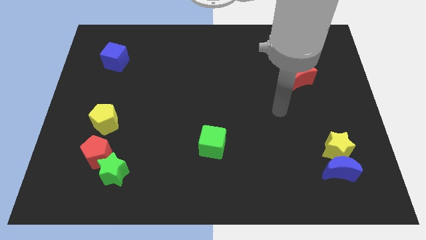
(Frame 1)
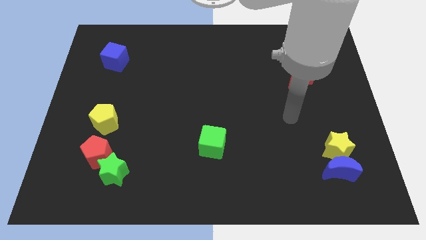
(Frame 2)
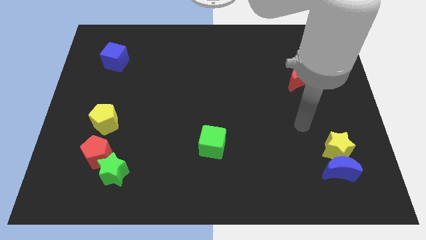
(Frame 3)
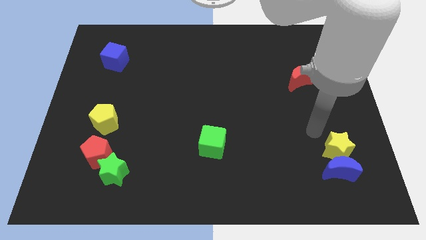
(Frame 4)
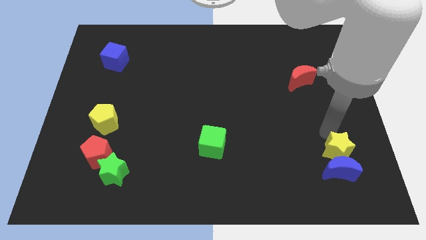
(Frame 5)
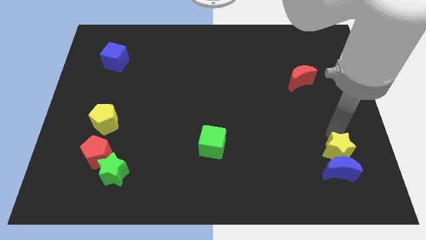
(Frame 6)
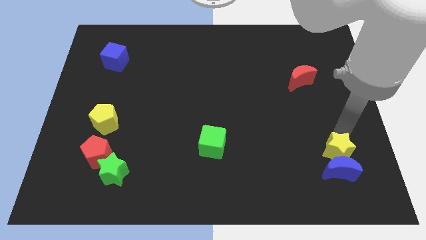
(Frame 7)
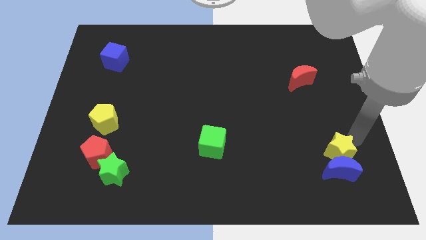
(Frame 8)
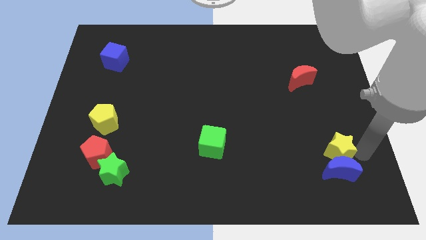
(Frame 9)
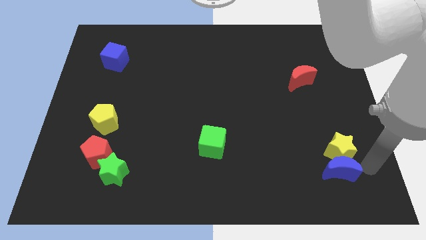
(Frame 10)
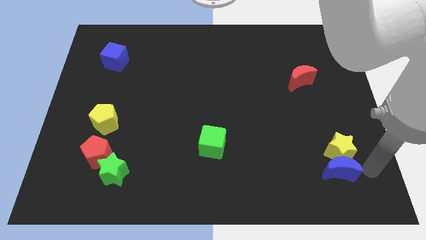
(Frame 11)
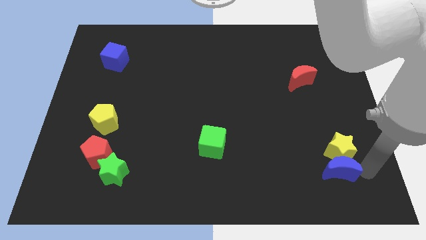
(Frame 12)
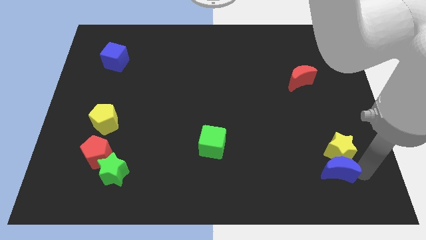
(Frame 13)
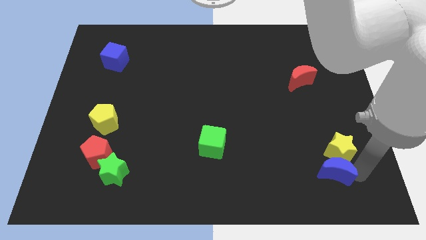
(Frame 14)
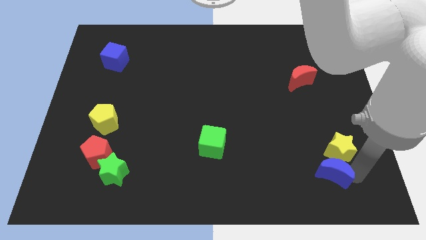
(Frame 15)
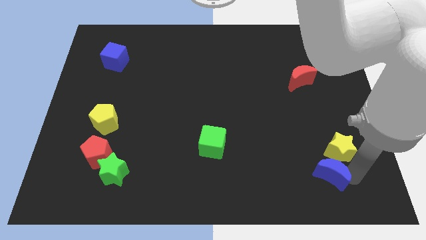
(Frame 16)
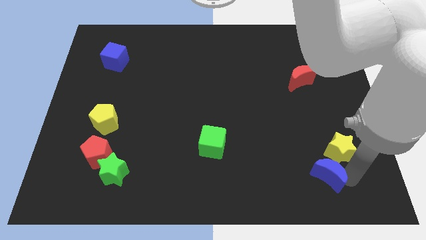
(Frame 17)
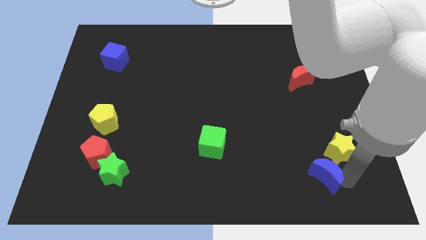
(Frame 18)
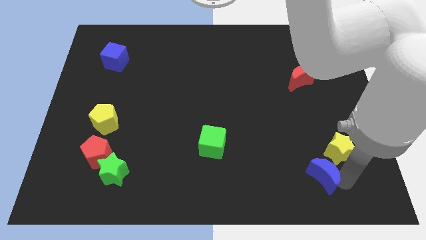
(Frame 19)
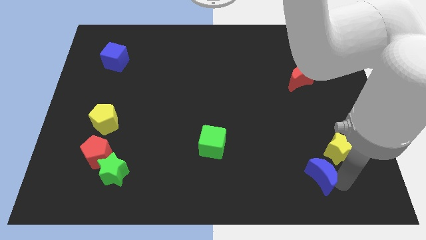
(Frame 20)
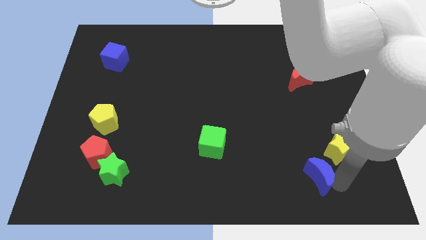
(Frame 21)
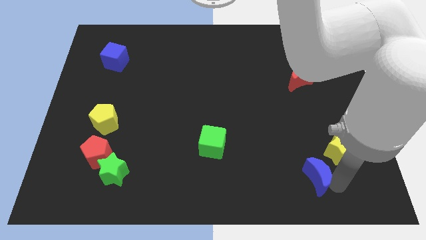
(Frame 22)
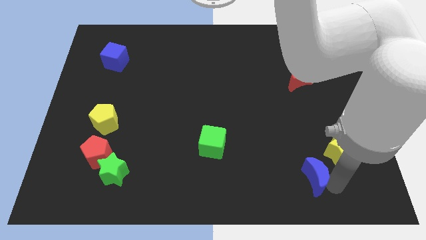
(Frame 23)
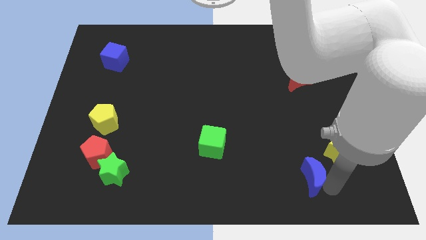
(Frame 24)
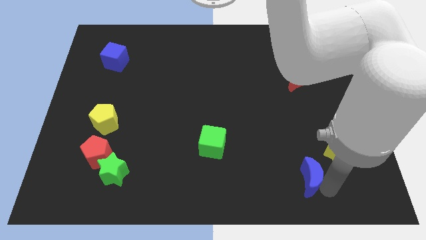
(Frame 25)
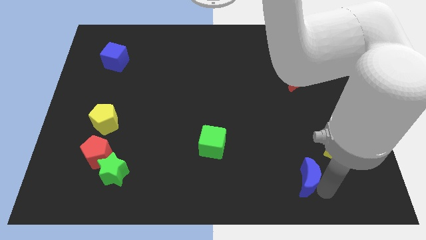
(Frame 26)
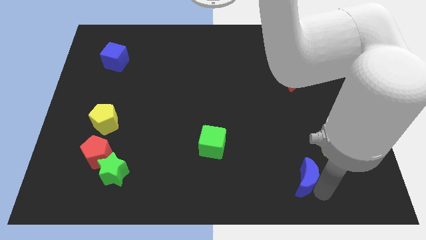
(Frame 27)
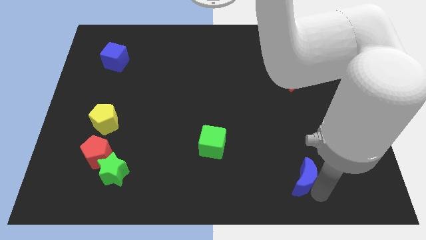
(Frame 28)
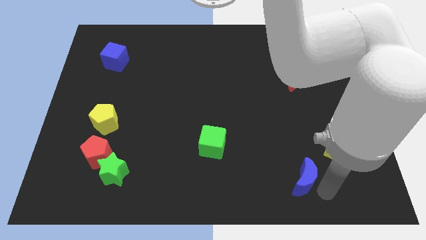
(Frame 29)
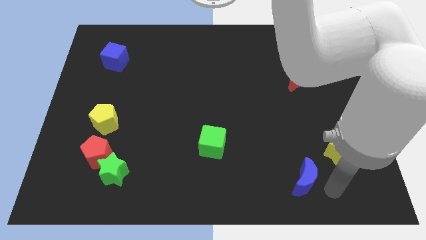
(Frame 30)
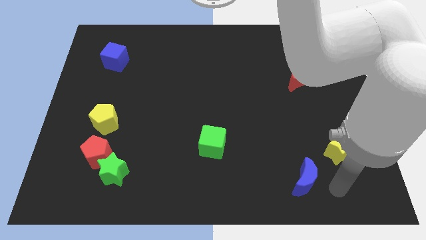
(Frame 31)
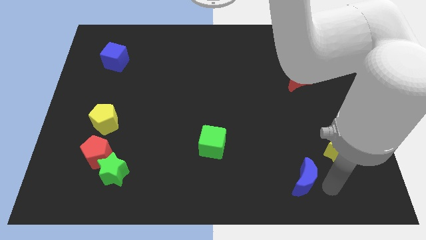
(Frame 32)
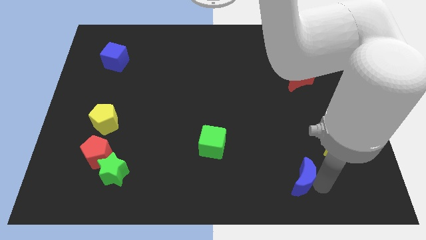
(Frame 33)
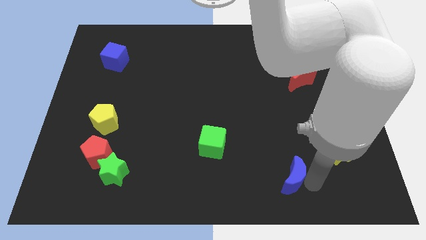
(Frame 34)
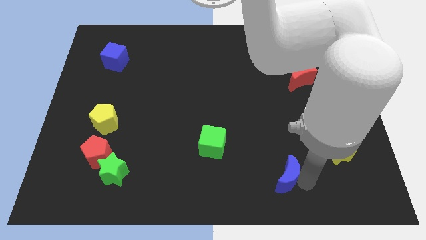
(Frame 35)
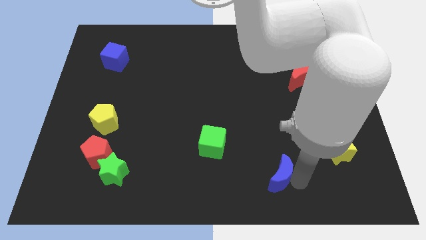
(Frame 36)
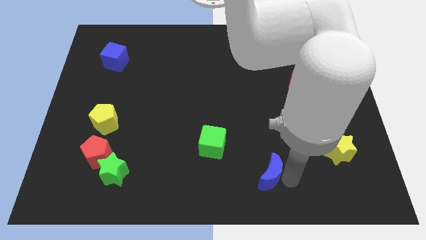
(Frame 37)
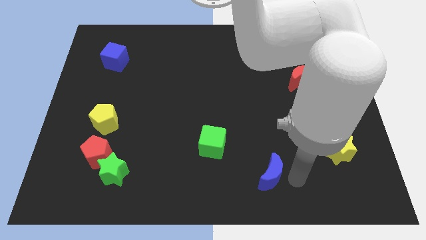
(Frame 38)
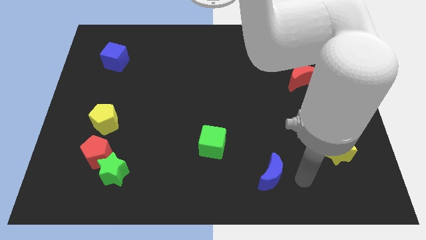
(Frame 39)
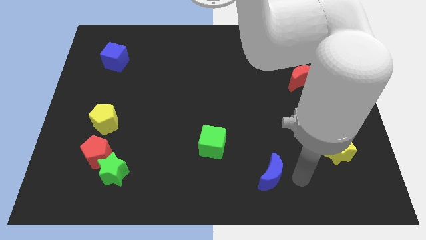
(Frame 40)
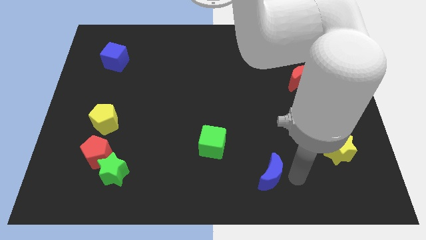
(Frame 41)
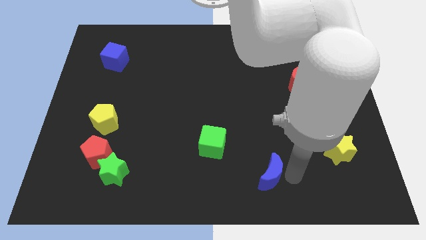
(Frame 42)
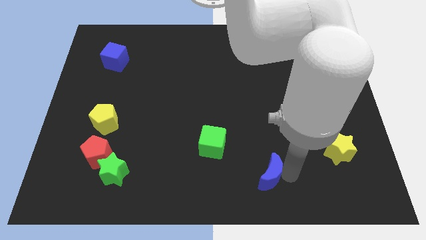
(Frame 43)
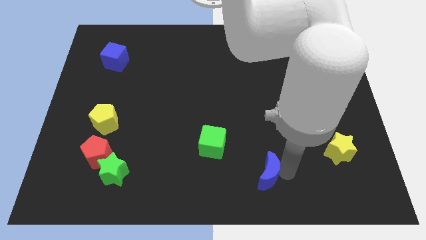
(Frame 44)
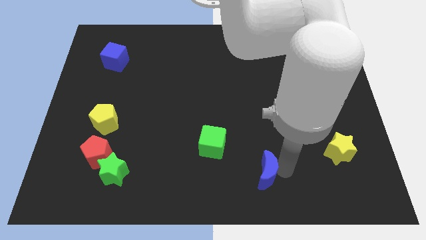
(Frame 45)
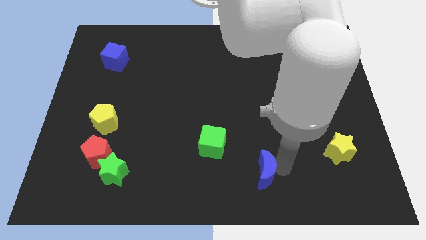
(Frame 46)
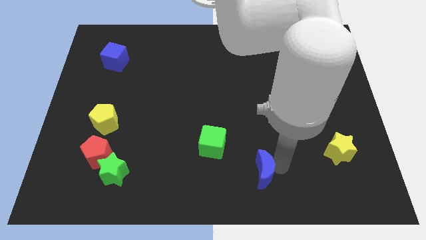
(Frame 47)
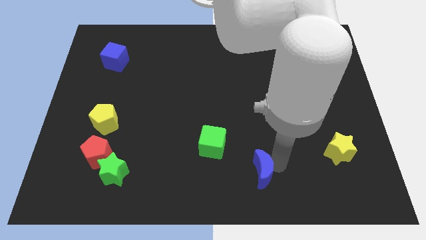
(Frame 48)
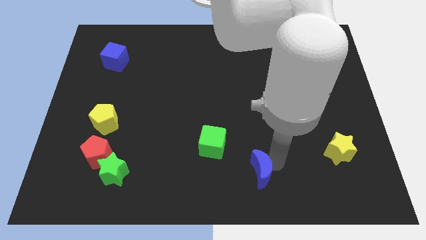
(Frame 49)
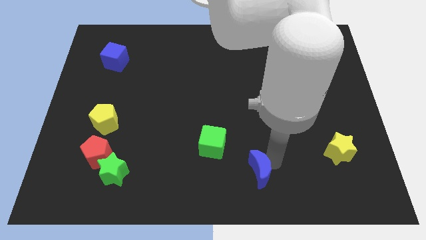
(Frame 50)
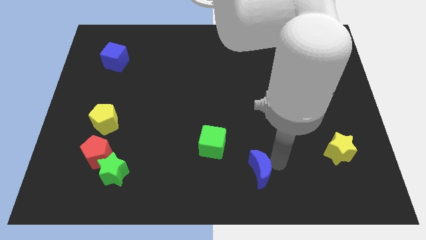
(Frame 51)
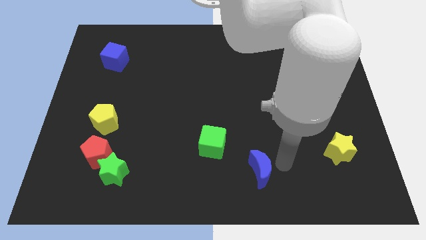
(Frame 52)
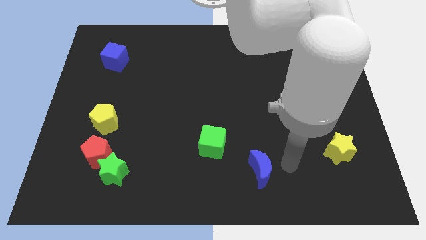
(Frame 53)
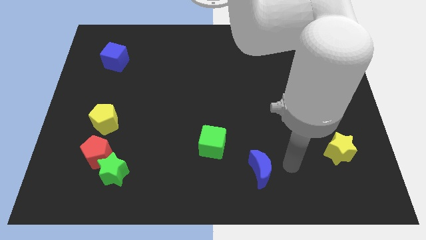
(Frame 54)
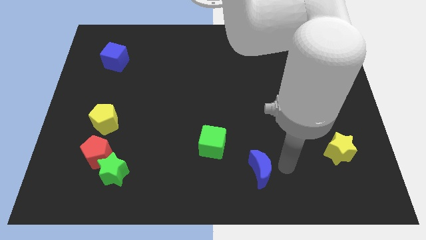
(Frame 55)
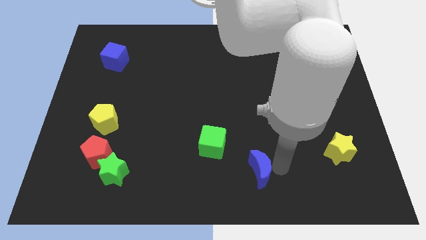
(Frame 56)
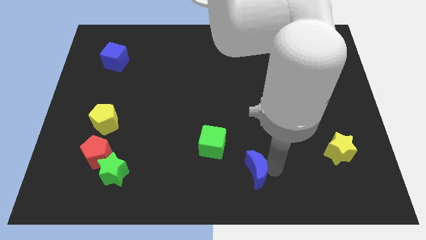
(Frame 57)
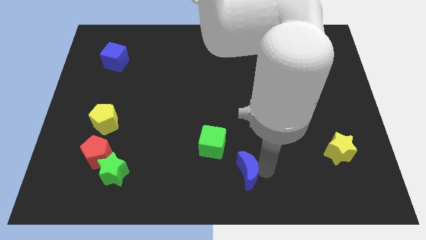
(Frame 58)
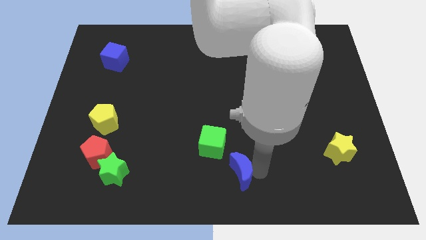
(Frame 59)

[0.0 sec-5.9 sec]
slide the blue moon left

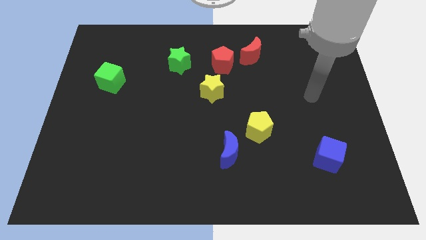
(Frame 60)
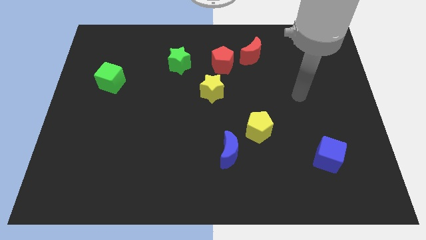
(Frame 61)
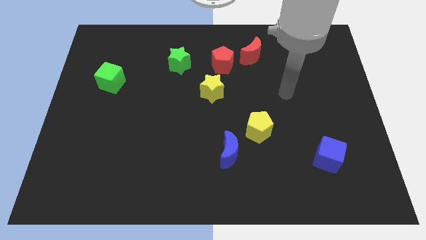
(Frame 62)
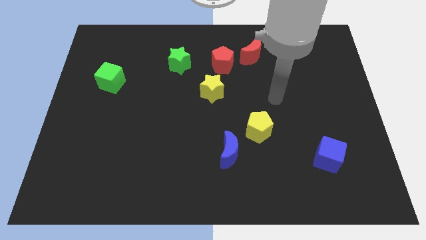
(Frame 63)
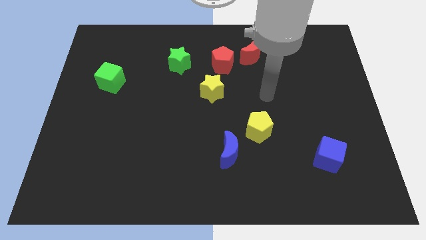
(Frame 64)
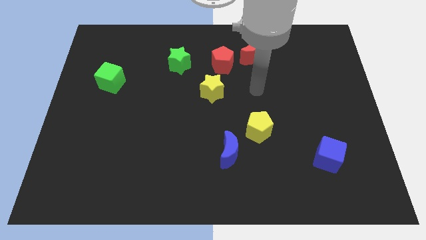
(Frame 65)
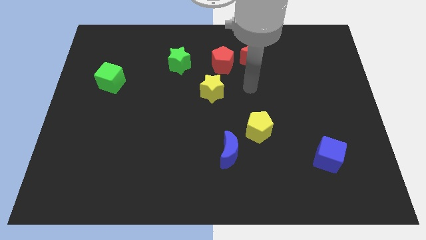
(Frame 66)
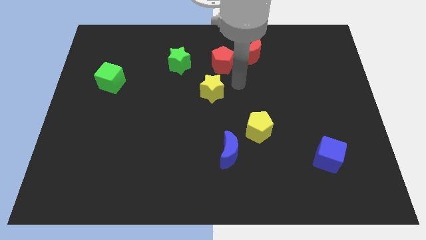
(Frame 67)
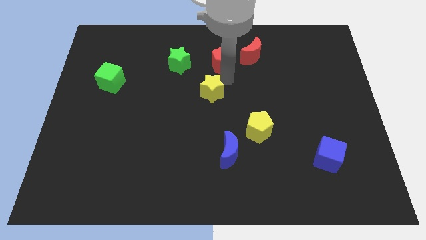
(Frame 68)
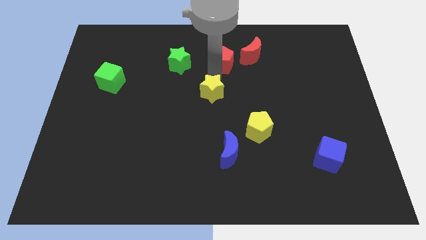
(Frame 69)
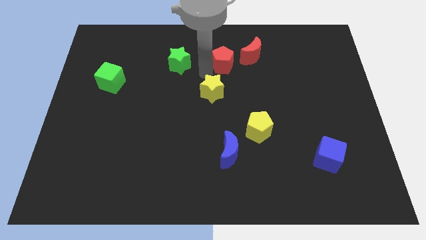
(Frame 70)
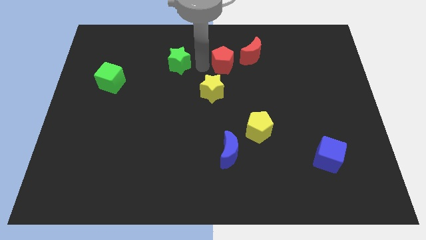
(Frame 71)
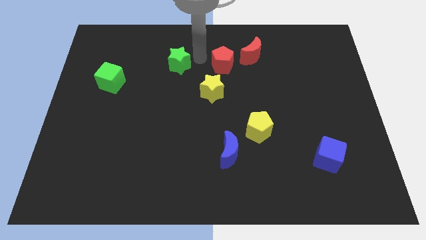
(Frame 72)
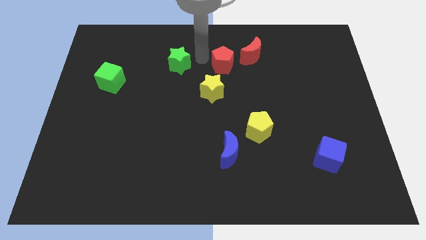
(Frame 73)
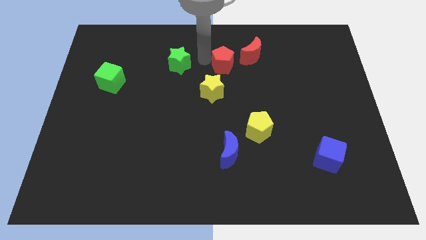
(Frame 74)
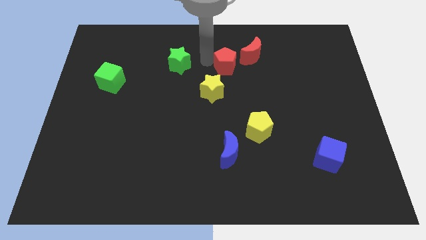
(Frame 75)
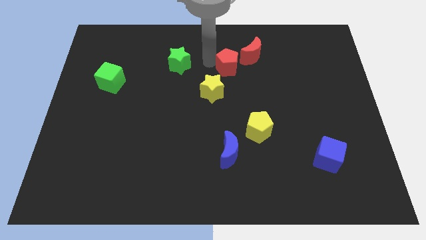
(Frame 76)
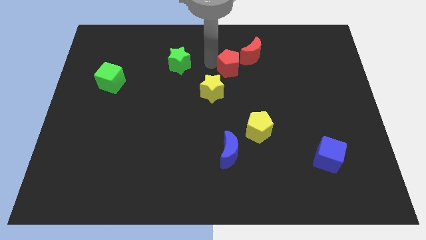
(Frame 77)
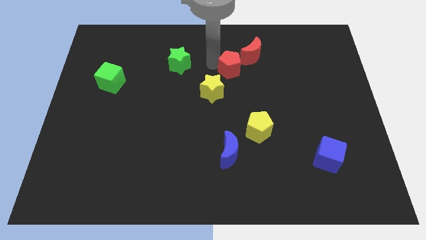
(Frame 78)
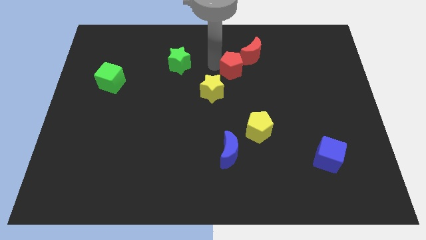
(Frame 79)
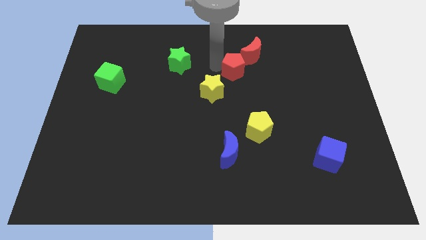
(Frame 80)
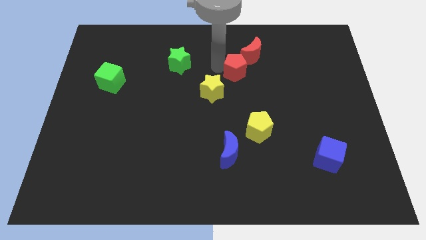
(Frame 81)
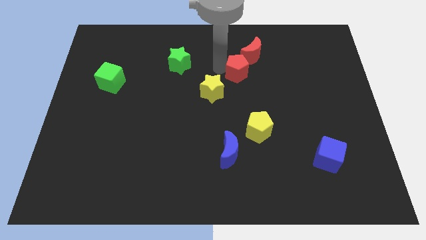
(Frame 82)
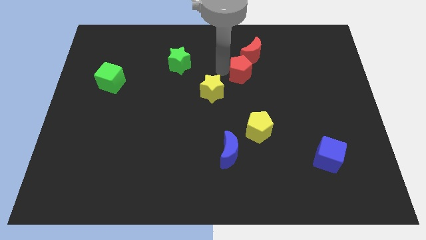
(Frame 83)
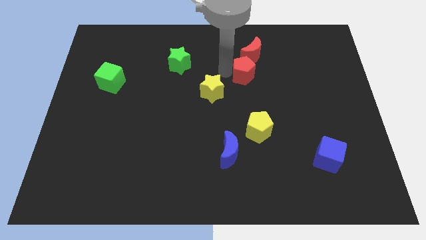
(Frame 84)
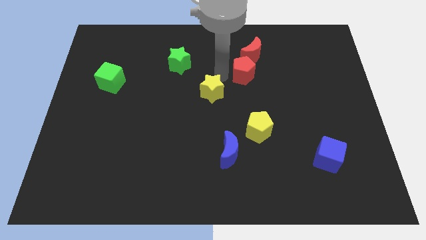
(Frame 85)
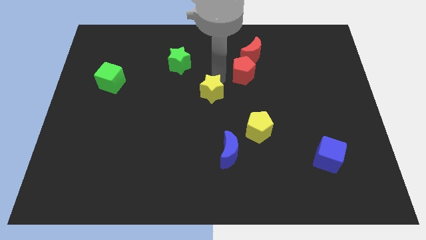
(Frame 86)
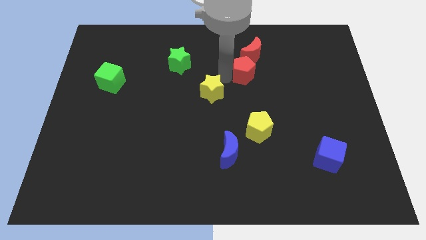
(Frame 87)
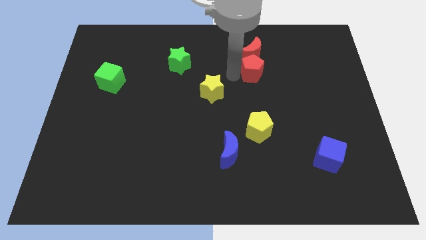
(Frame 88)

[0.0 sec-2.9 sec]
slide the red pentagon a bit right
